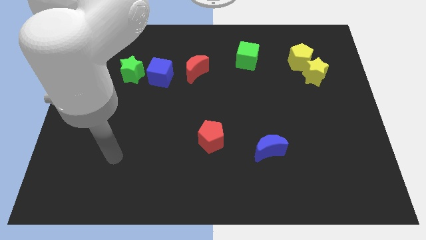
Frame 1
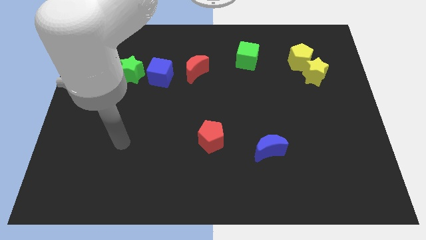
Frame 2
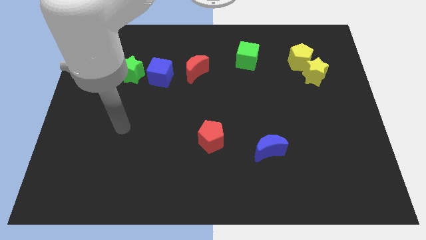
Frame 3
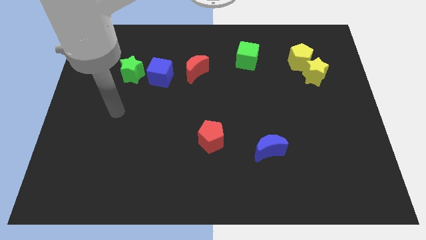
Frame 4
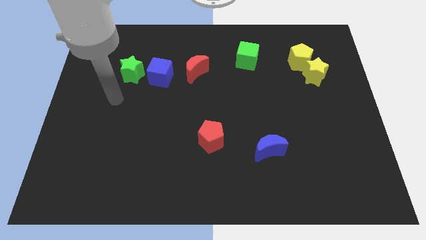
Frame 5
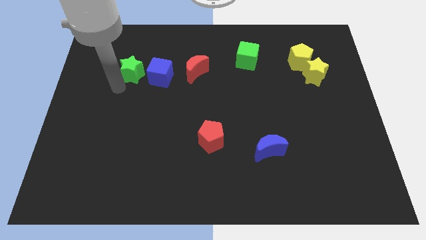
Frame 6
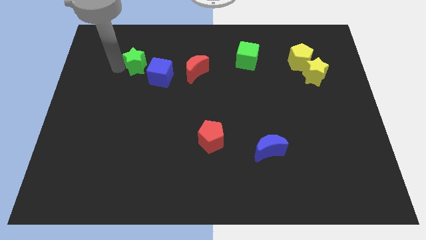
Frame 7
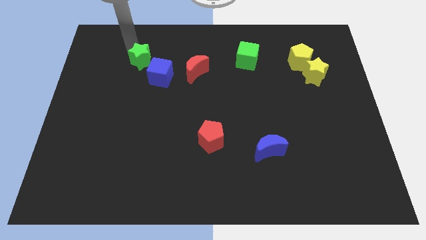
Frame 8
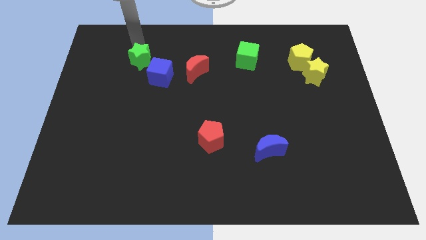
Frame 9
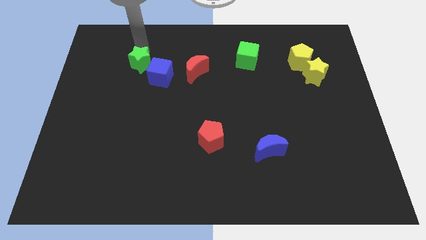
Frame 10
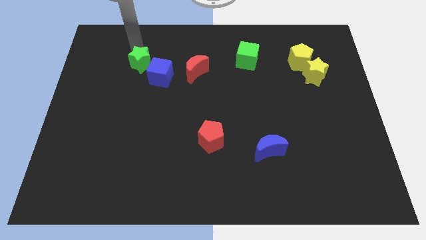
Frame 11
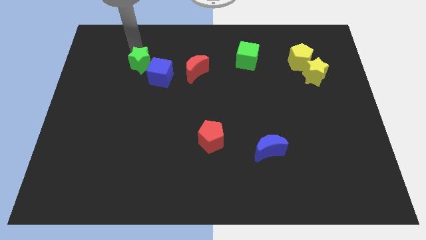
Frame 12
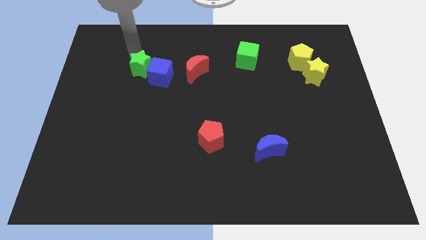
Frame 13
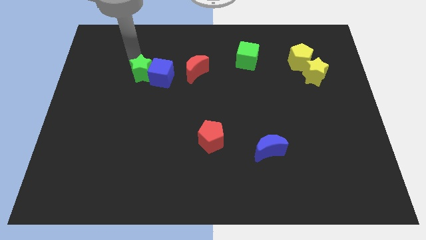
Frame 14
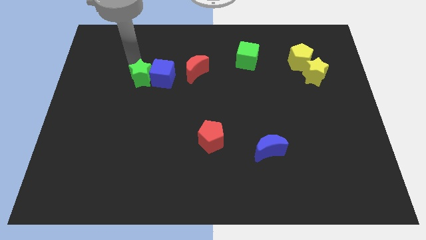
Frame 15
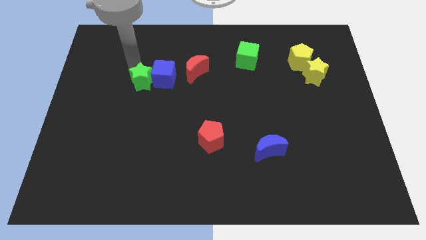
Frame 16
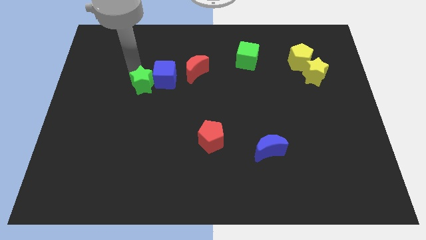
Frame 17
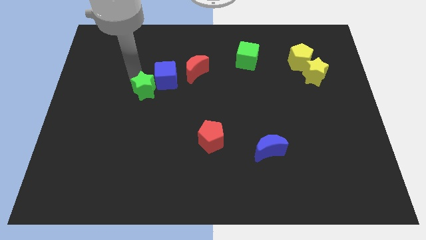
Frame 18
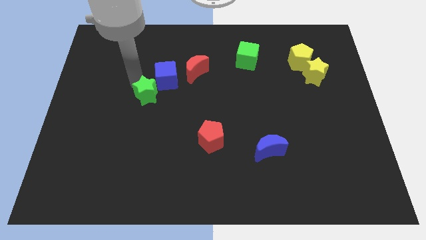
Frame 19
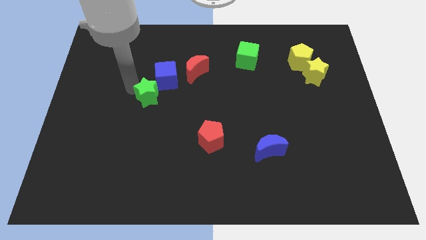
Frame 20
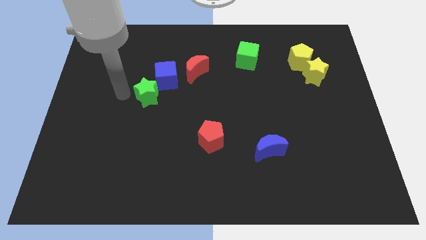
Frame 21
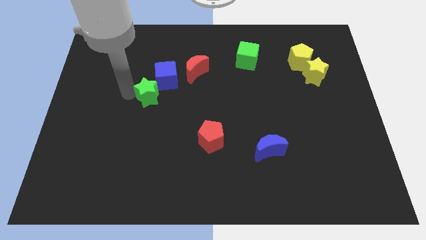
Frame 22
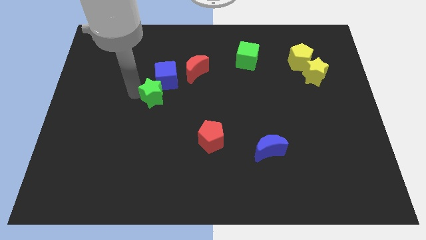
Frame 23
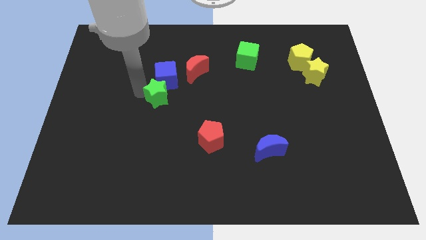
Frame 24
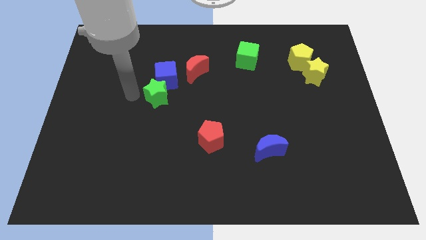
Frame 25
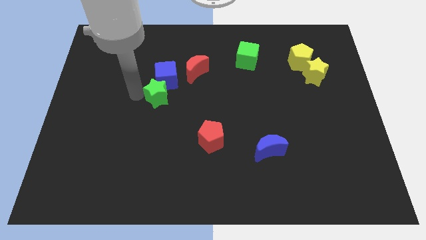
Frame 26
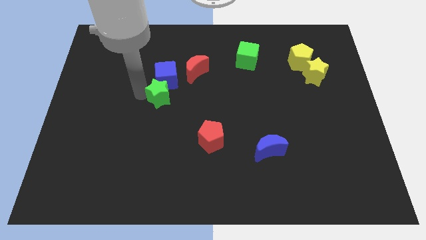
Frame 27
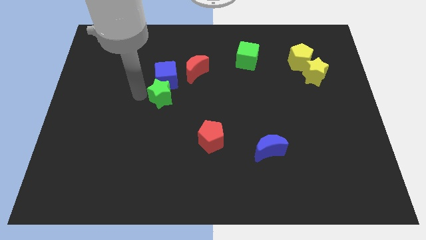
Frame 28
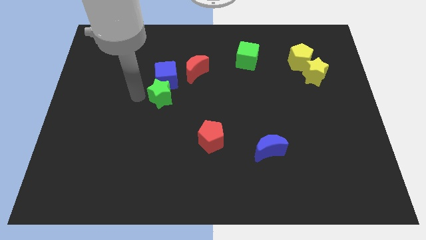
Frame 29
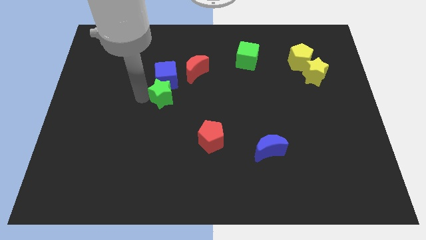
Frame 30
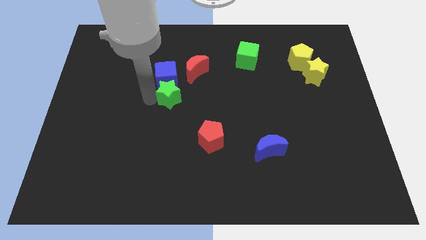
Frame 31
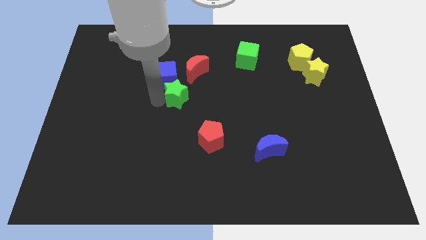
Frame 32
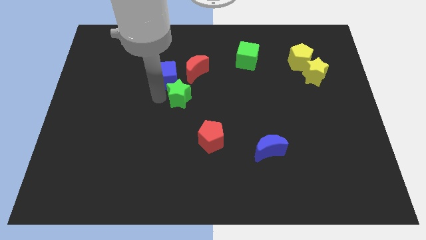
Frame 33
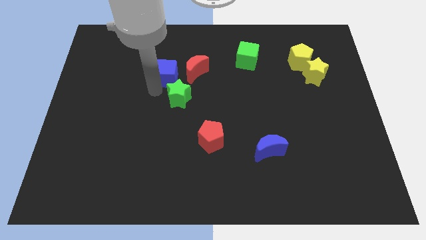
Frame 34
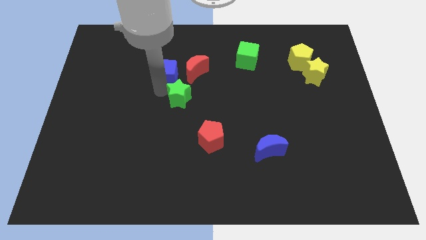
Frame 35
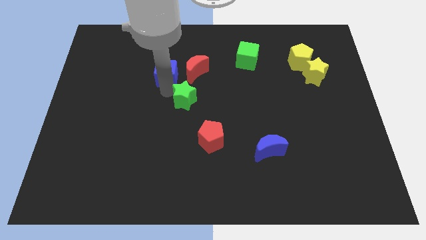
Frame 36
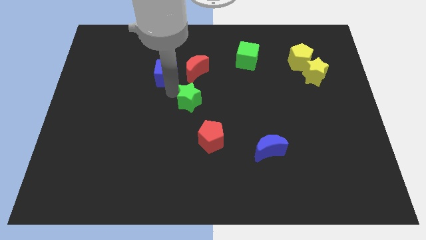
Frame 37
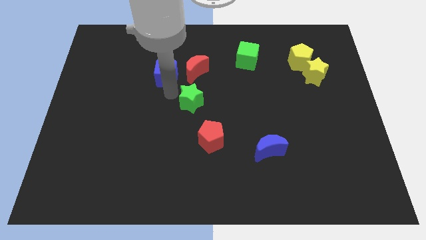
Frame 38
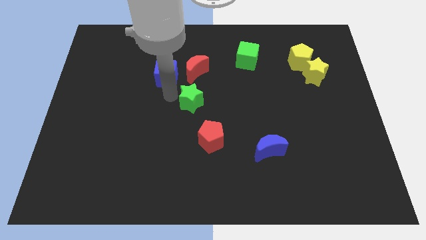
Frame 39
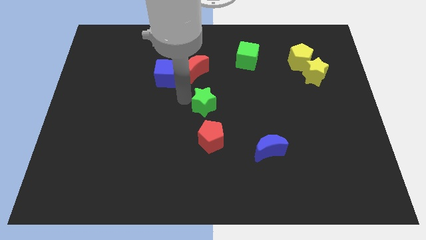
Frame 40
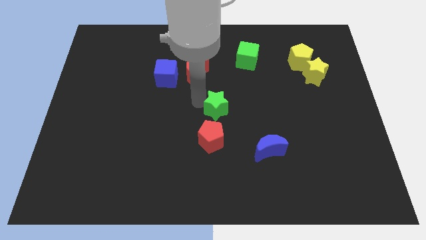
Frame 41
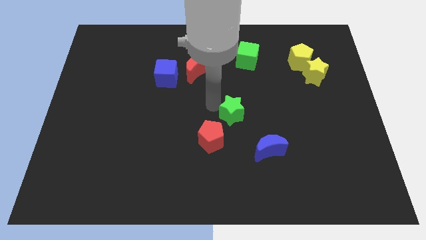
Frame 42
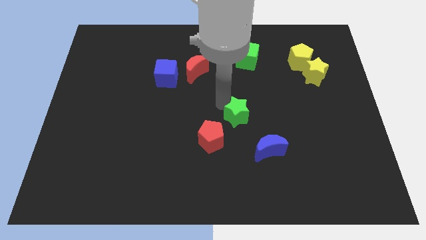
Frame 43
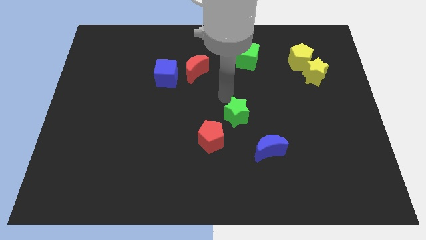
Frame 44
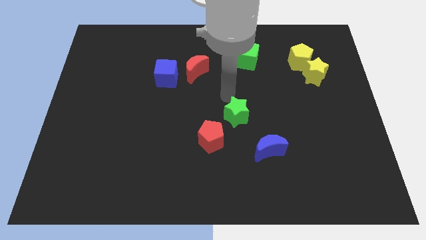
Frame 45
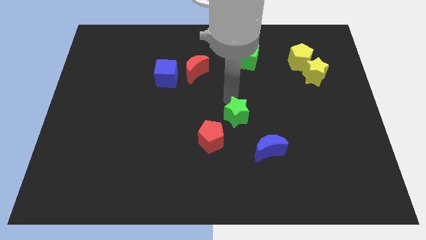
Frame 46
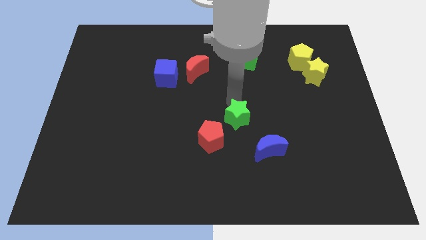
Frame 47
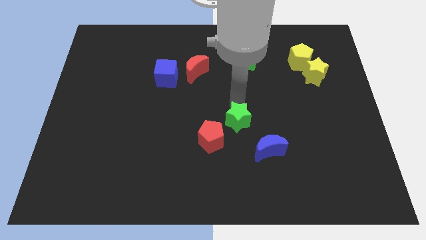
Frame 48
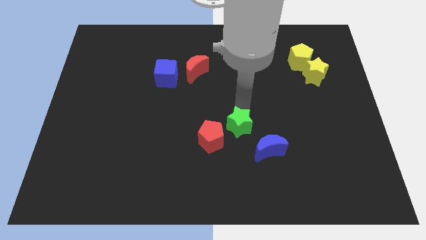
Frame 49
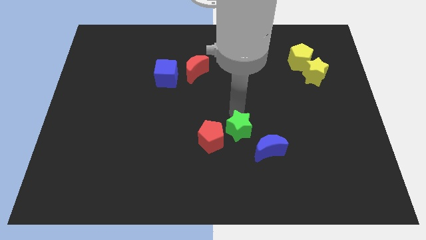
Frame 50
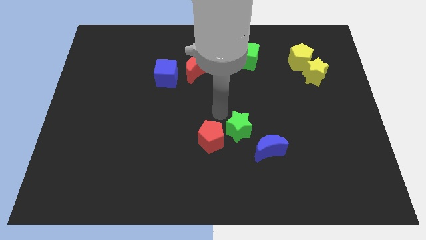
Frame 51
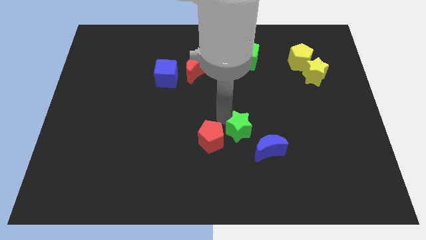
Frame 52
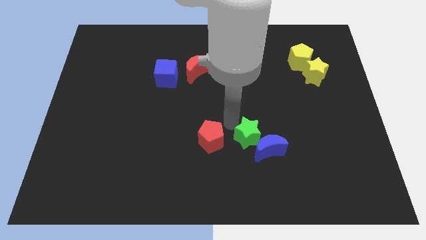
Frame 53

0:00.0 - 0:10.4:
move the green star close to the blue moon

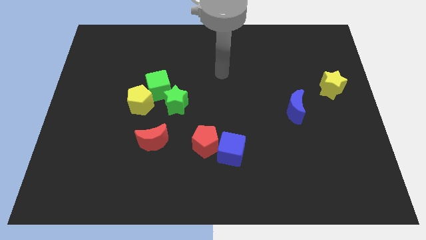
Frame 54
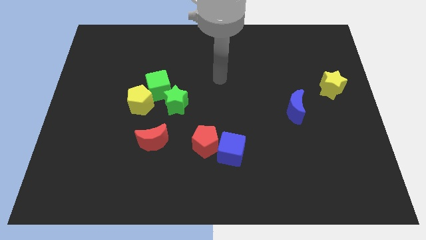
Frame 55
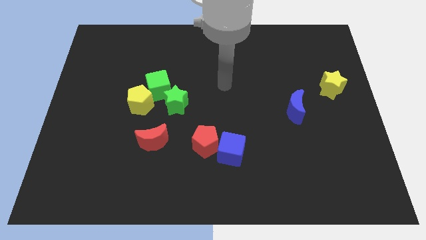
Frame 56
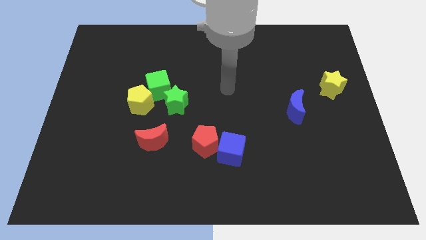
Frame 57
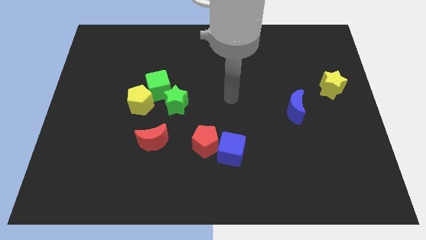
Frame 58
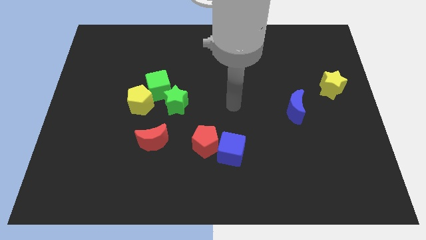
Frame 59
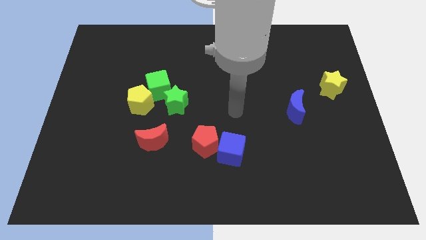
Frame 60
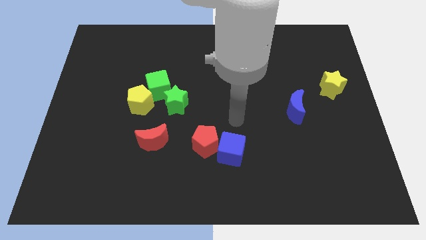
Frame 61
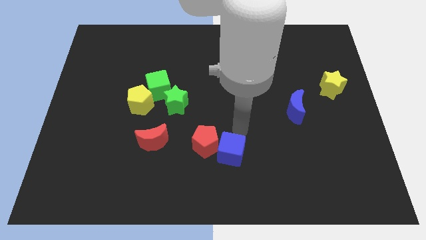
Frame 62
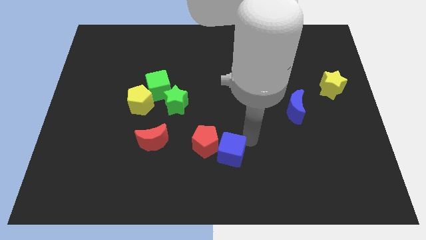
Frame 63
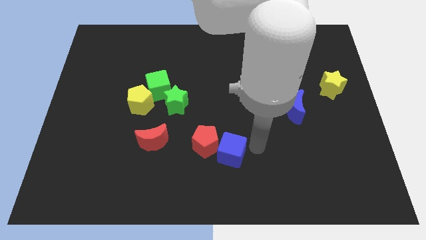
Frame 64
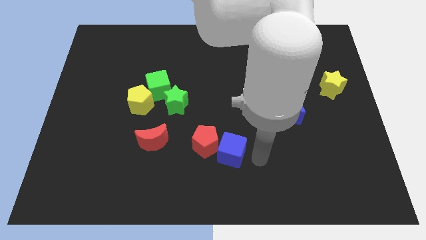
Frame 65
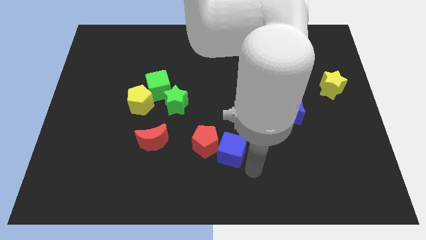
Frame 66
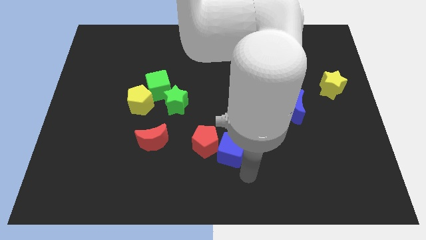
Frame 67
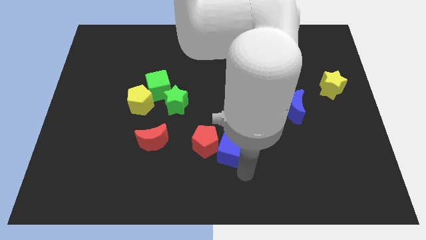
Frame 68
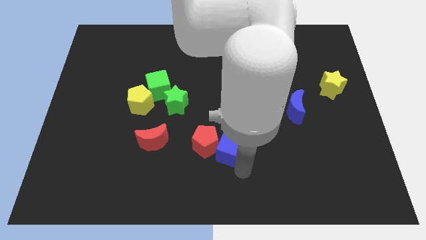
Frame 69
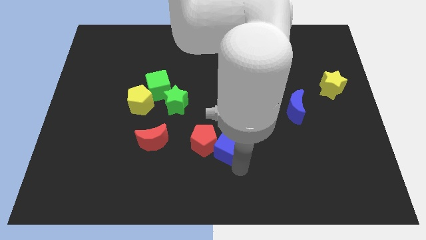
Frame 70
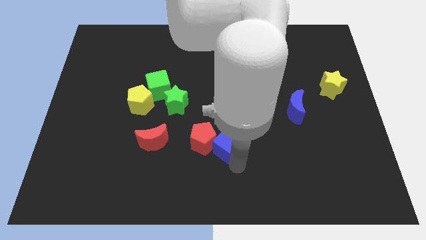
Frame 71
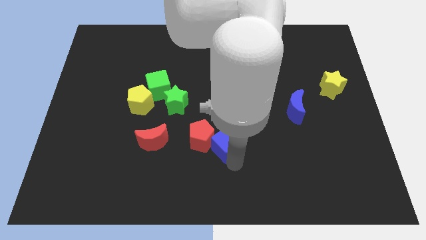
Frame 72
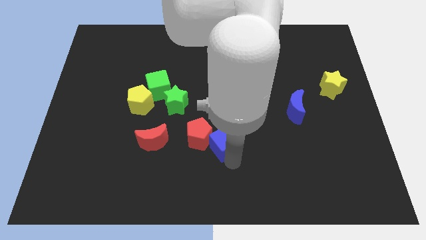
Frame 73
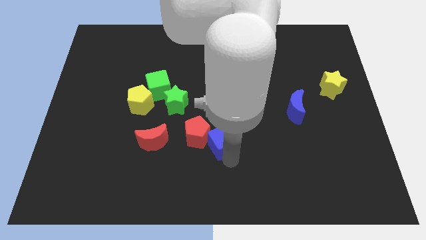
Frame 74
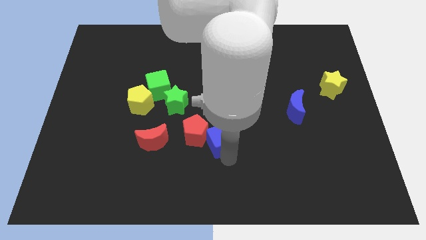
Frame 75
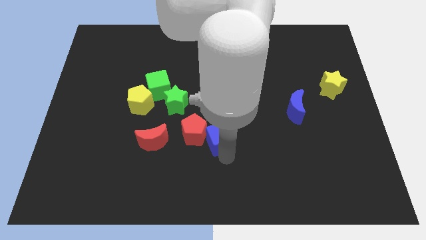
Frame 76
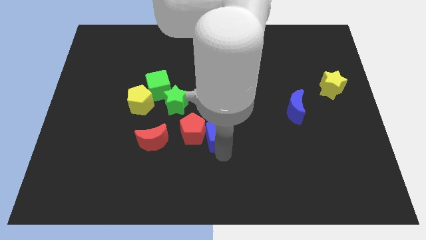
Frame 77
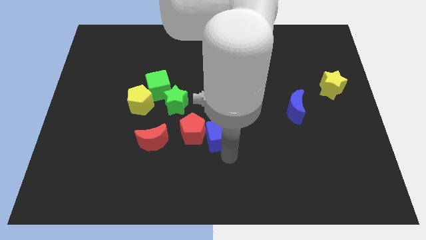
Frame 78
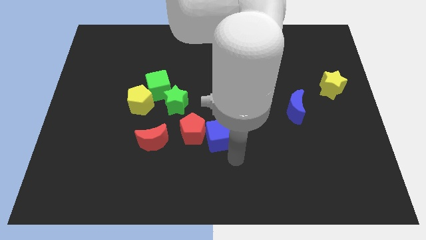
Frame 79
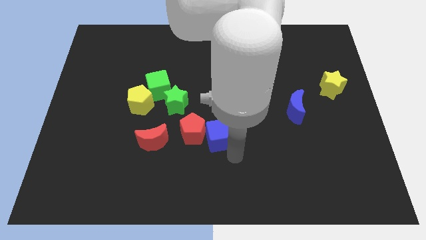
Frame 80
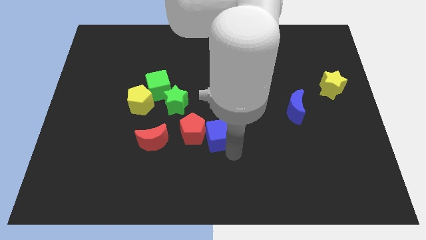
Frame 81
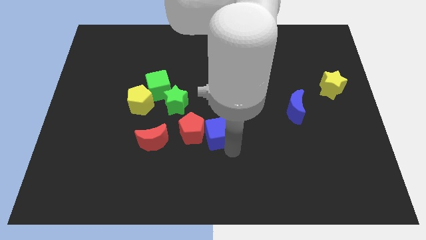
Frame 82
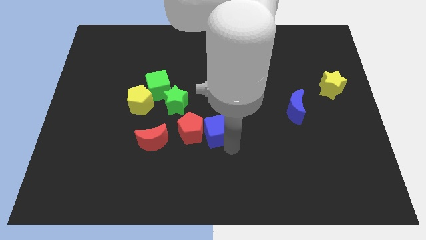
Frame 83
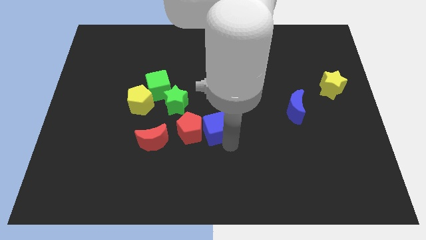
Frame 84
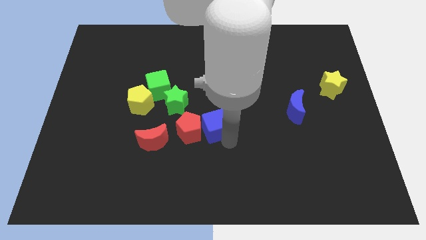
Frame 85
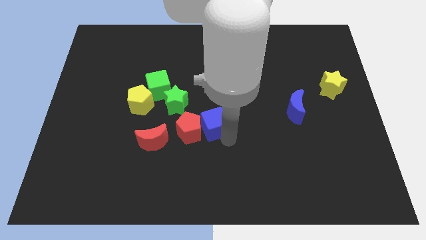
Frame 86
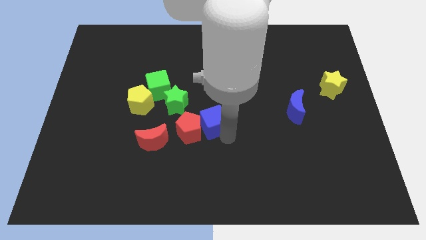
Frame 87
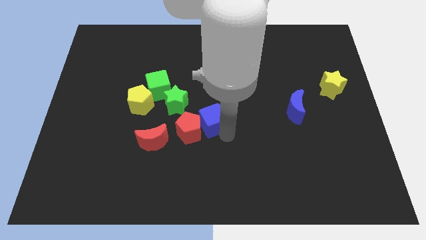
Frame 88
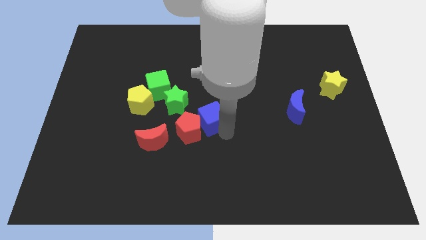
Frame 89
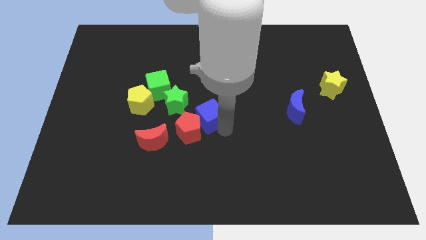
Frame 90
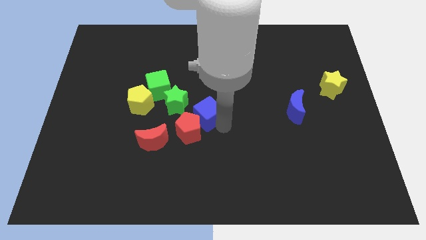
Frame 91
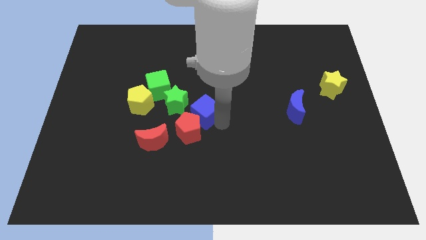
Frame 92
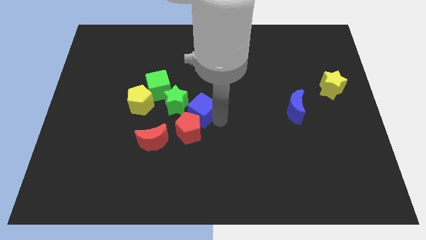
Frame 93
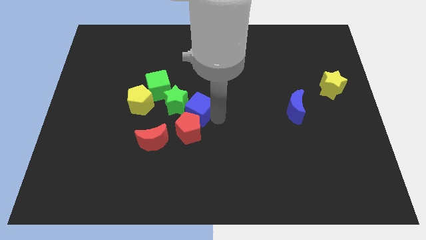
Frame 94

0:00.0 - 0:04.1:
move the blue cube towards the green star
